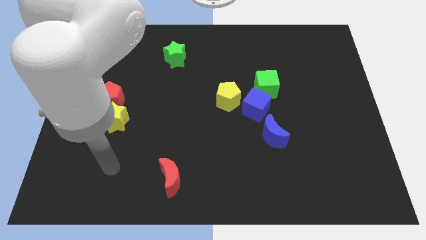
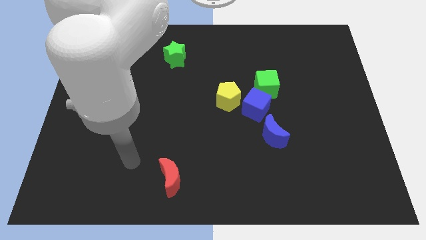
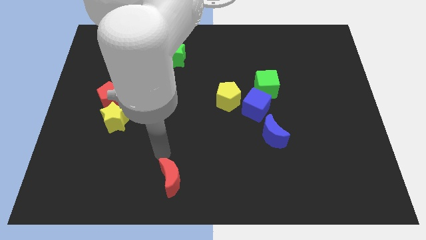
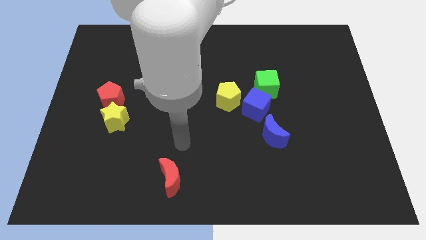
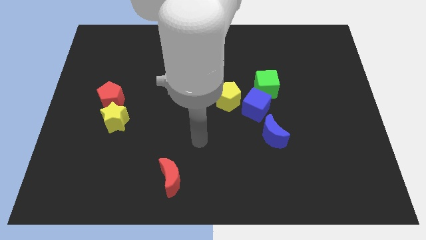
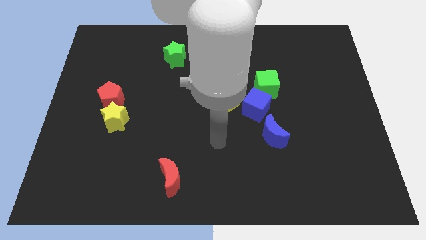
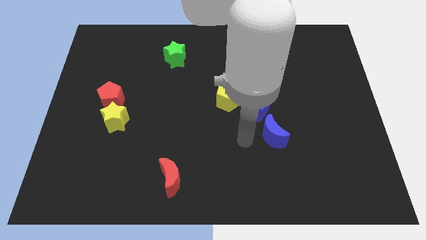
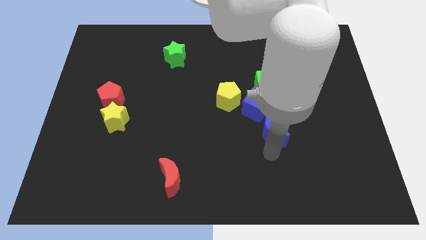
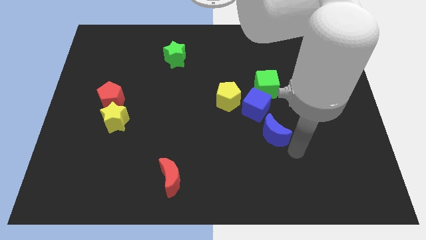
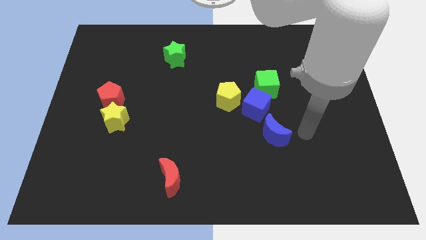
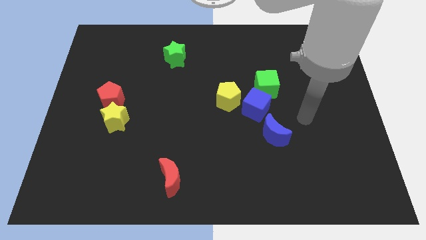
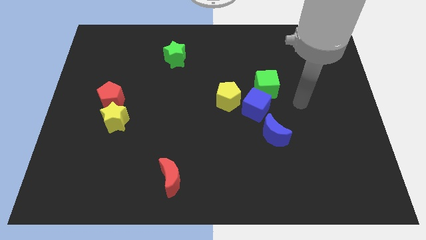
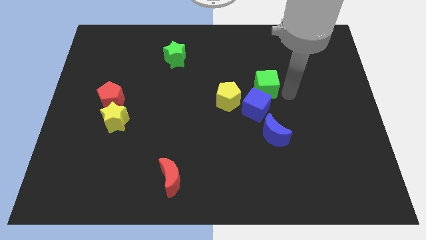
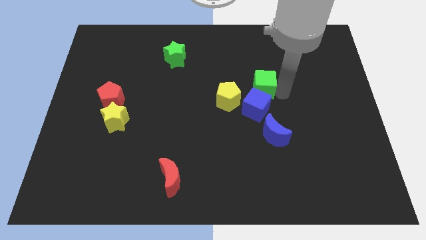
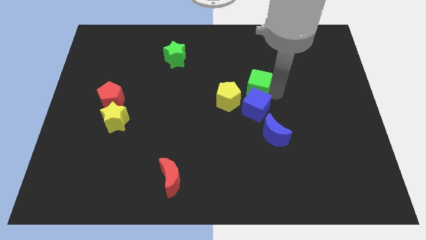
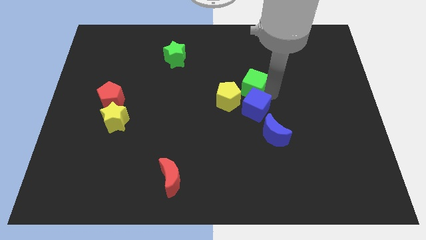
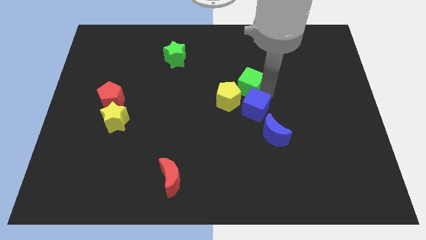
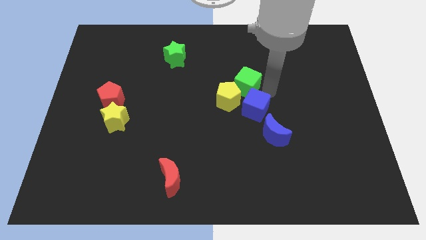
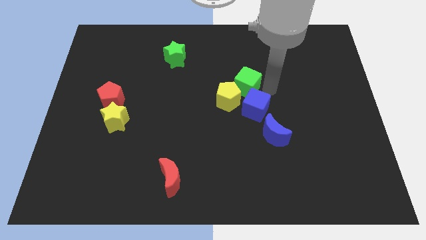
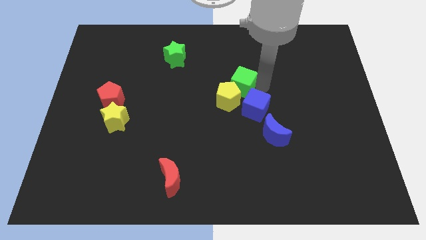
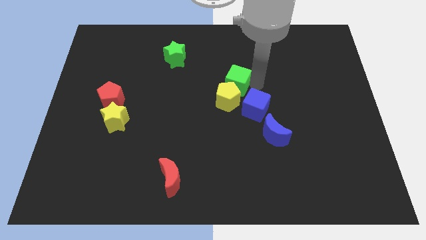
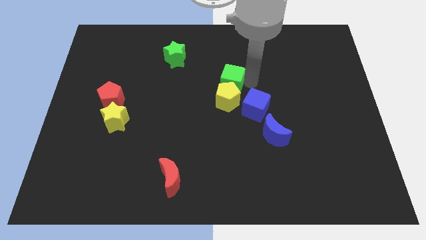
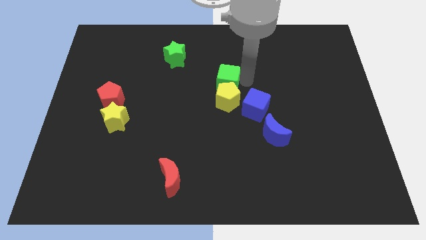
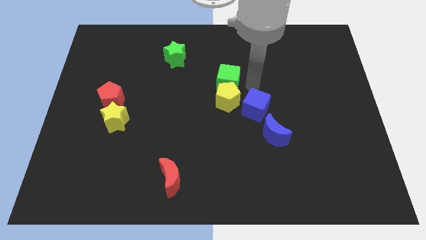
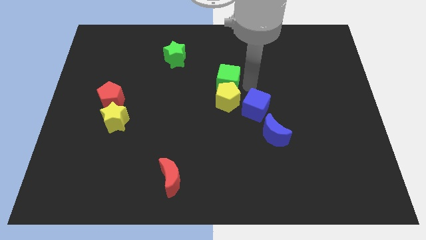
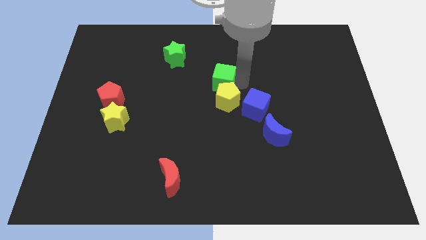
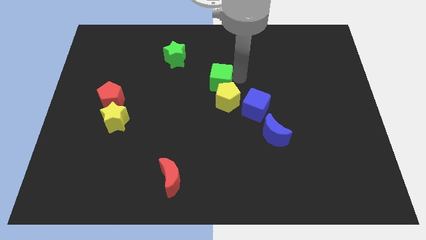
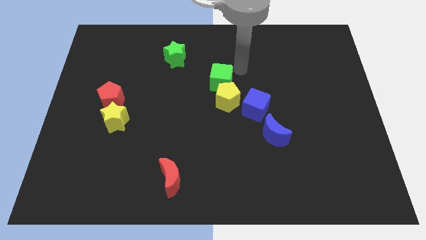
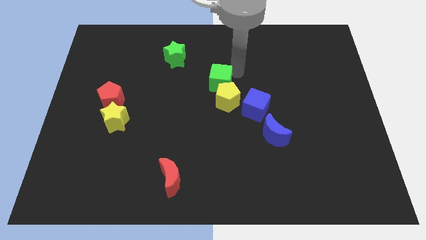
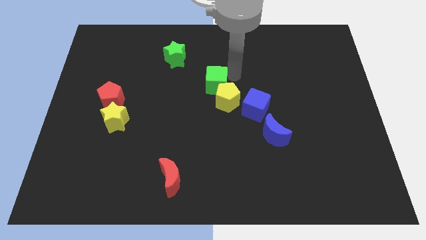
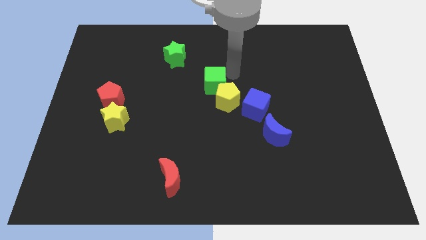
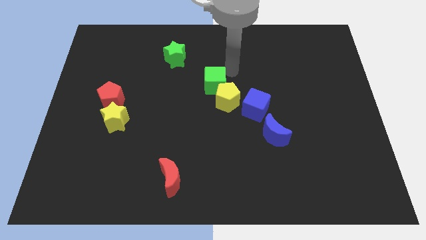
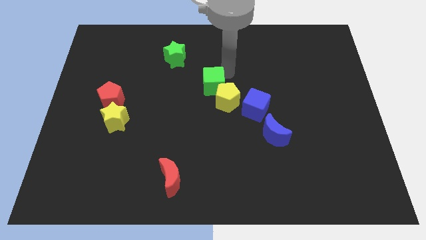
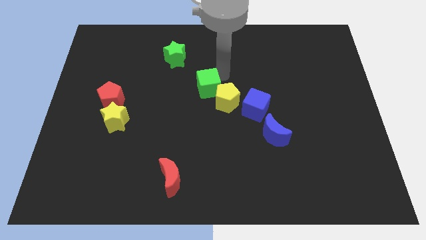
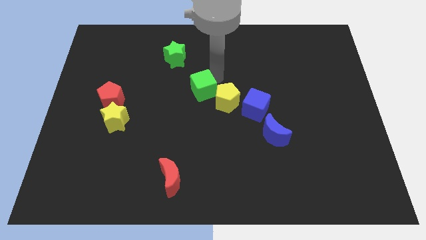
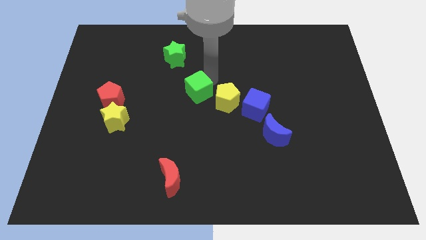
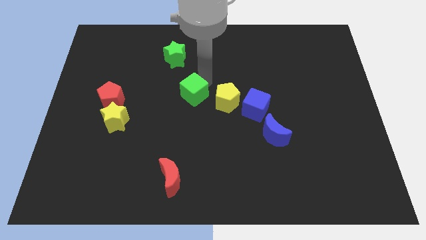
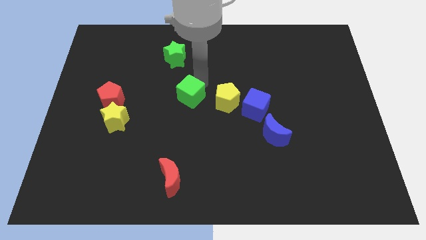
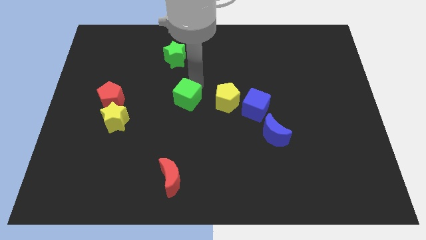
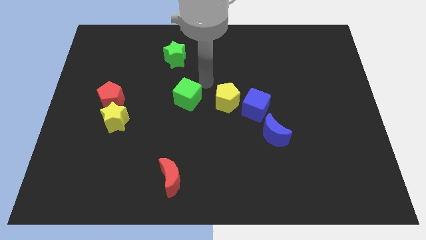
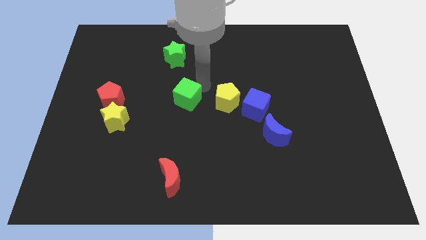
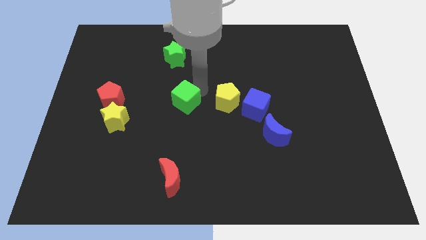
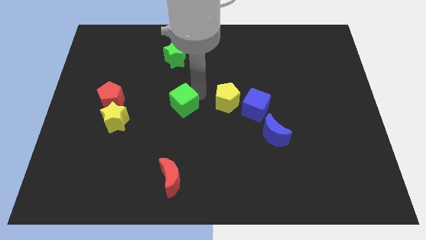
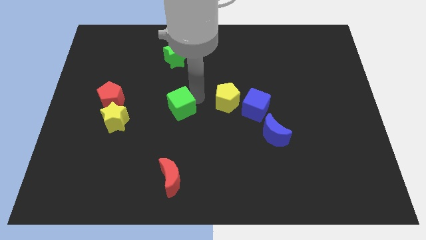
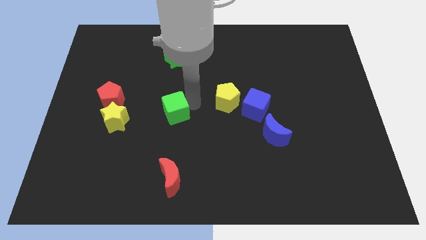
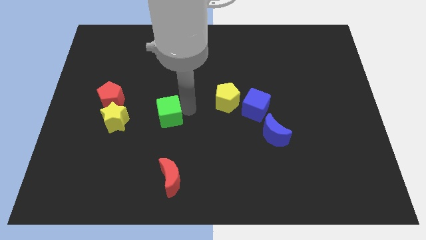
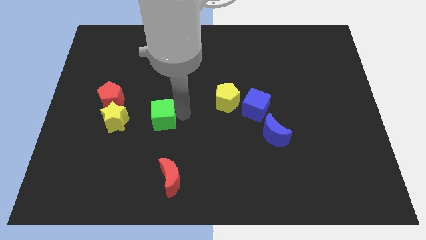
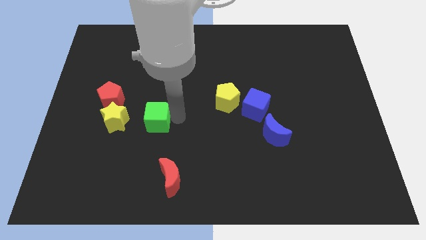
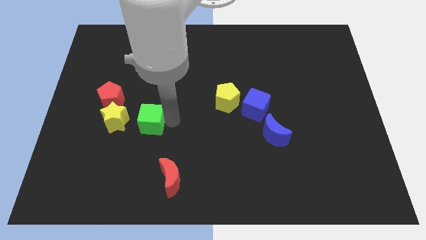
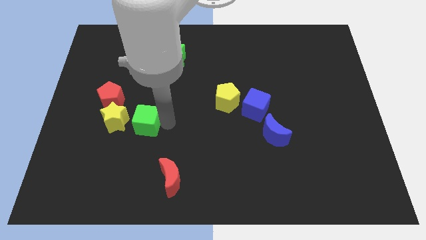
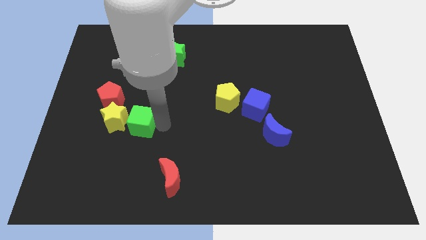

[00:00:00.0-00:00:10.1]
push the green cube close to the yellow star

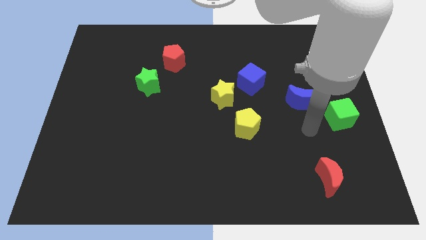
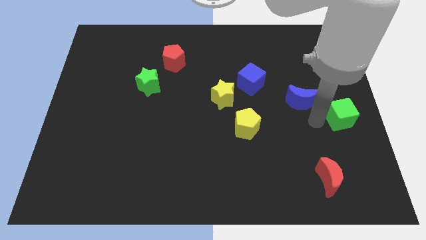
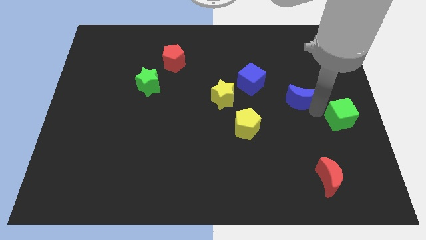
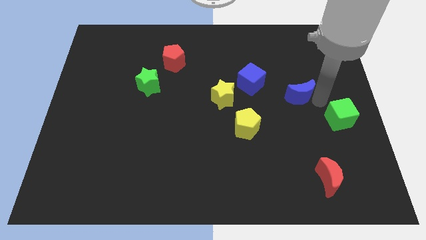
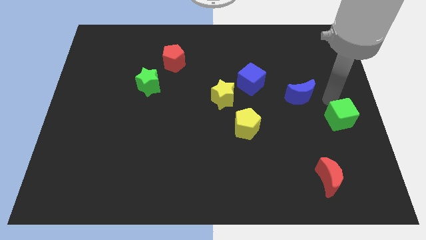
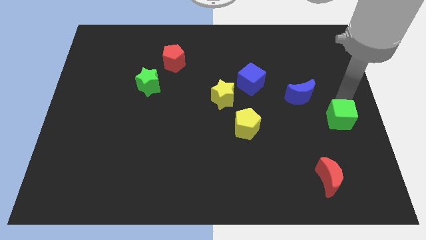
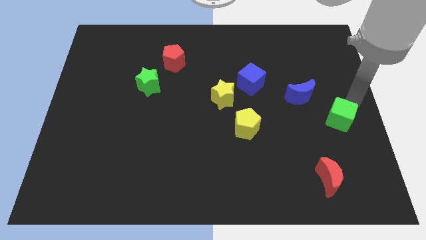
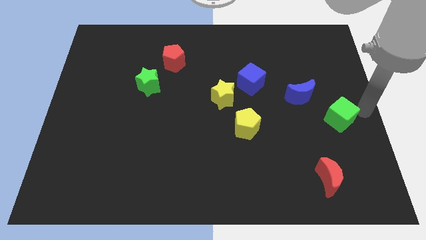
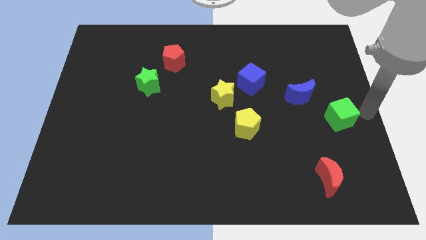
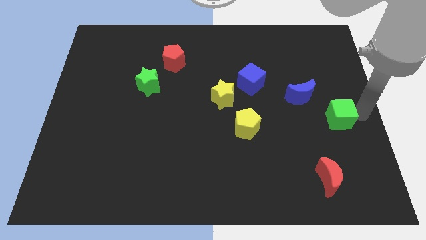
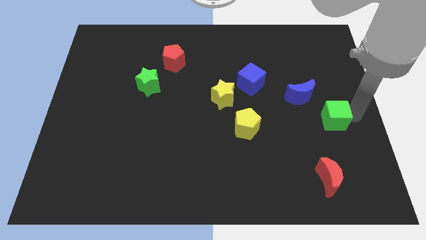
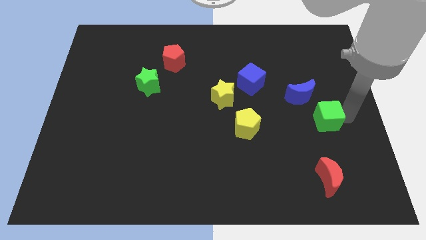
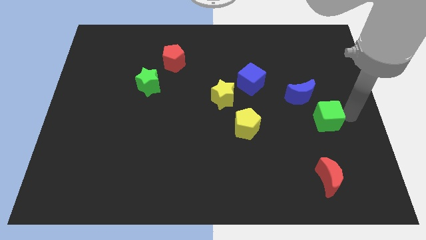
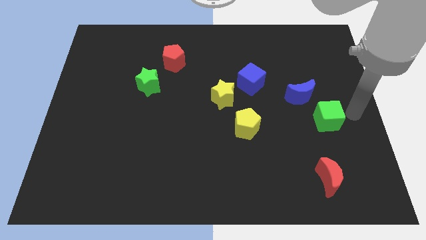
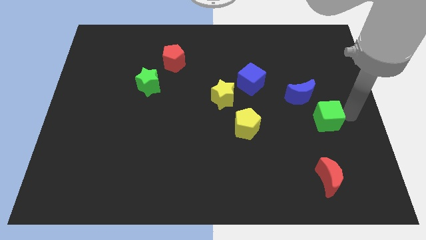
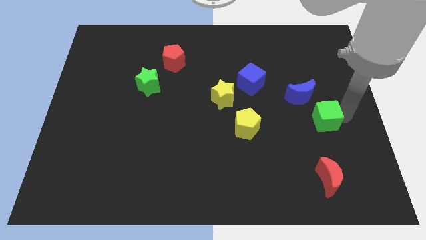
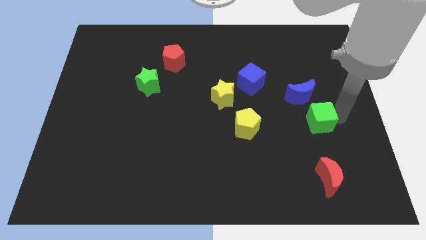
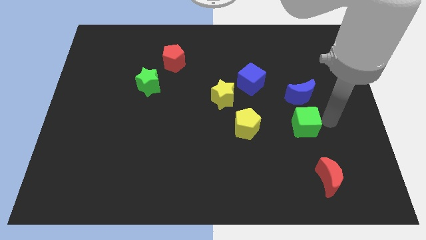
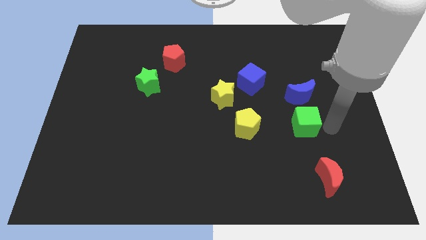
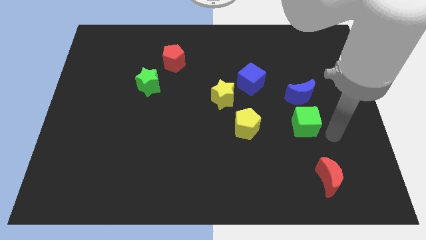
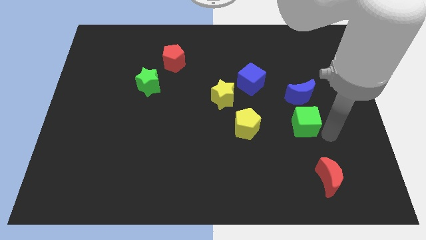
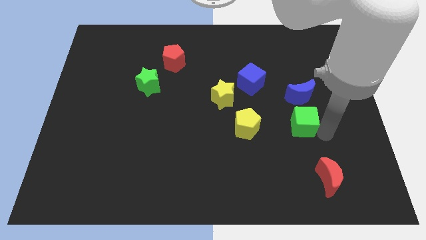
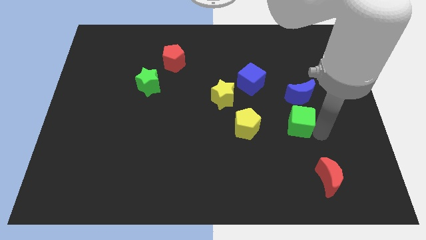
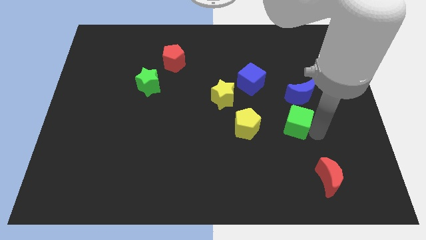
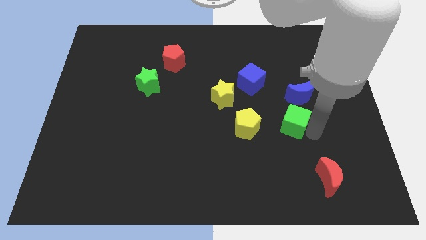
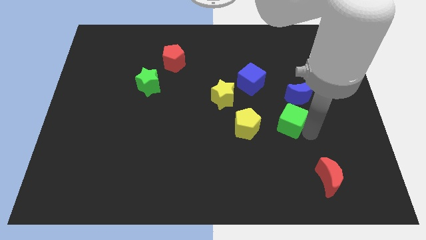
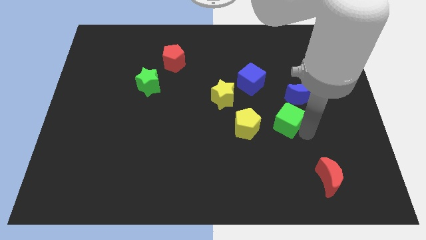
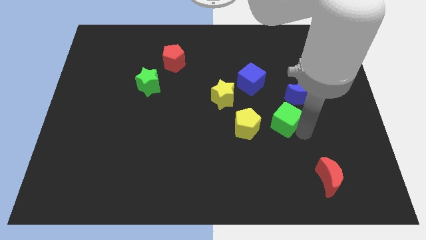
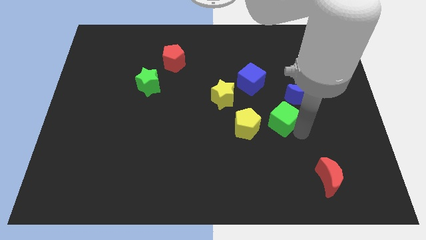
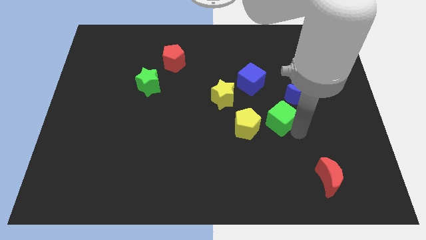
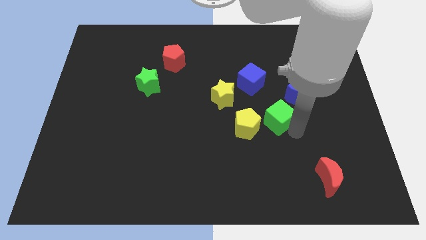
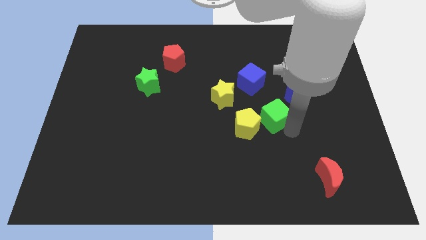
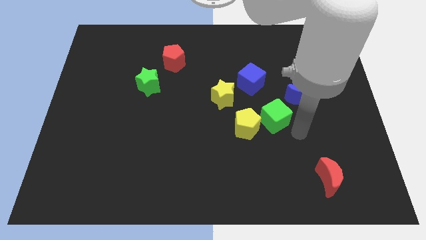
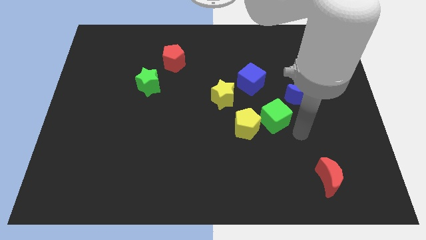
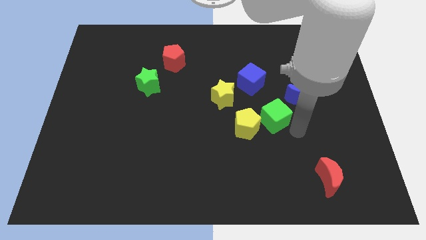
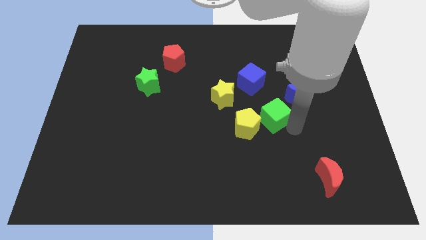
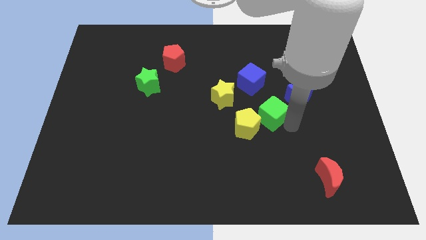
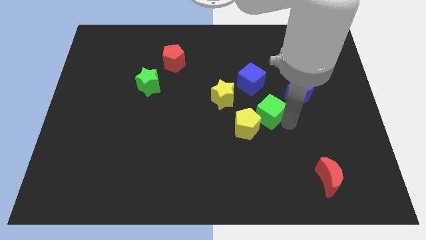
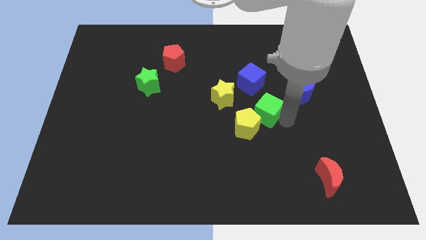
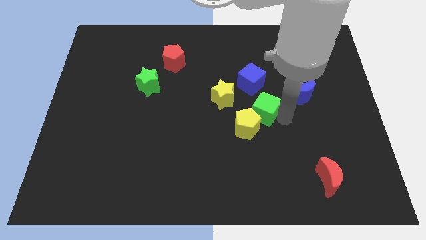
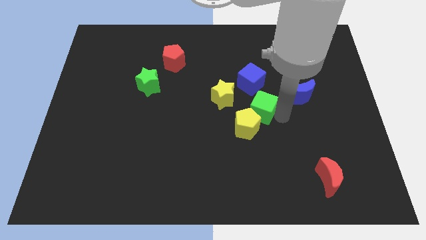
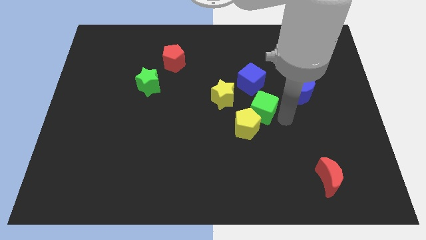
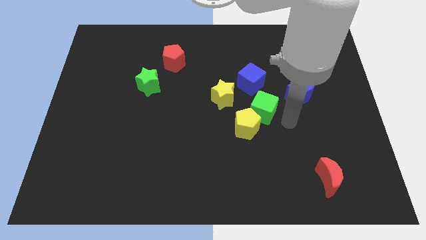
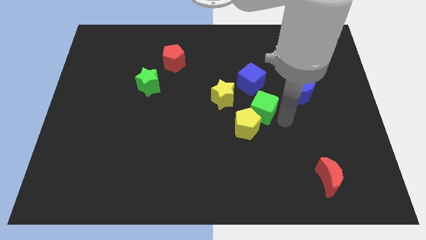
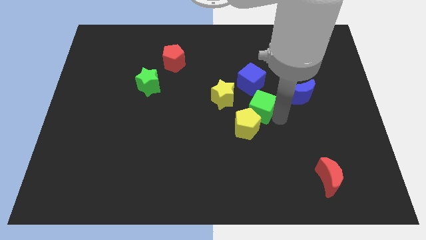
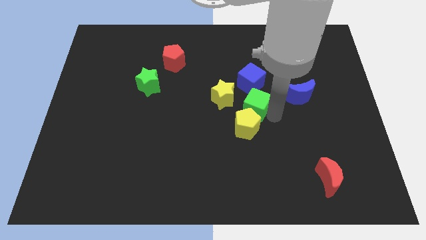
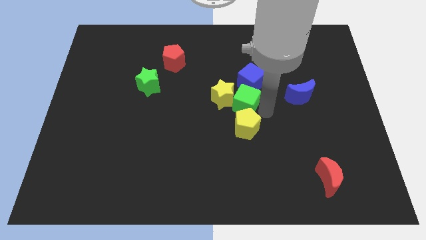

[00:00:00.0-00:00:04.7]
put the green cube towards the yellow star
